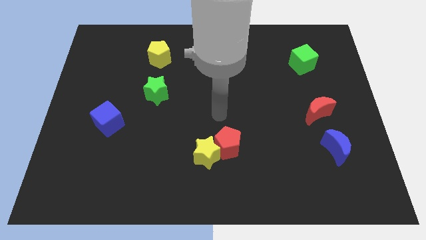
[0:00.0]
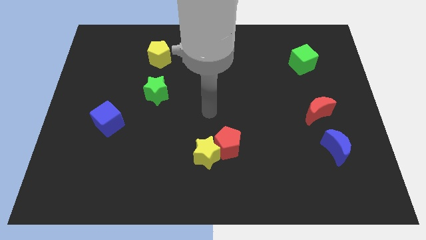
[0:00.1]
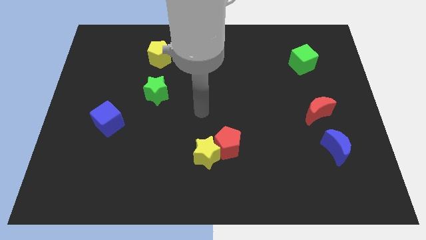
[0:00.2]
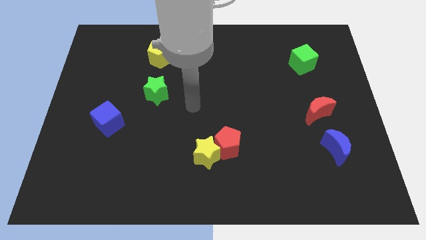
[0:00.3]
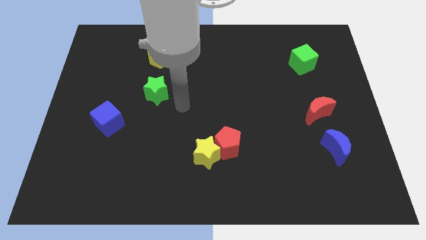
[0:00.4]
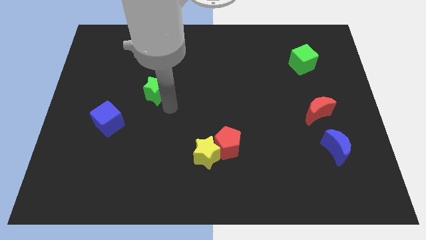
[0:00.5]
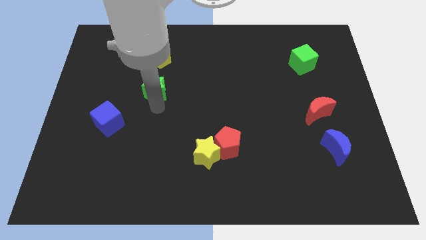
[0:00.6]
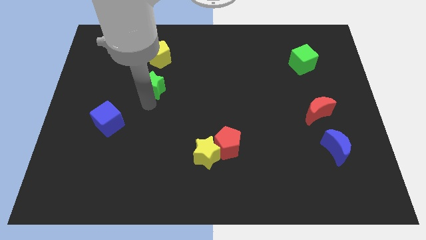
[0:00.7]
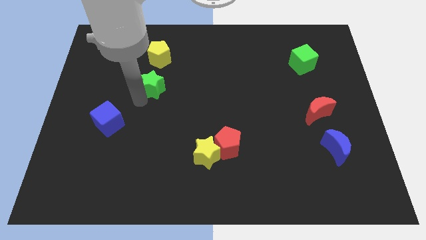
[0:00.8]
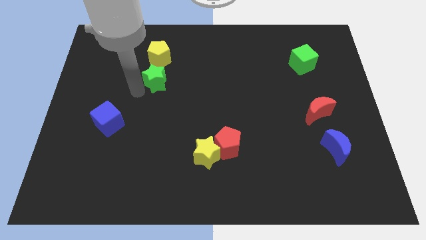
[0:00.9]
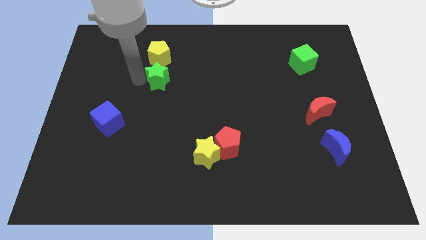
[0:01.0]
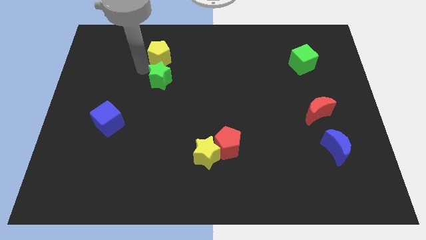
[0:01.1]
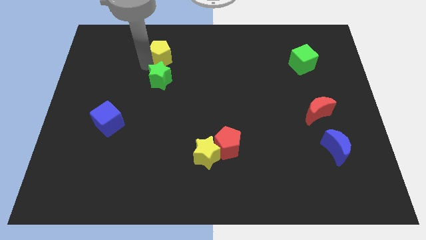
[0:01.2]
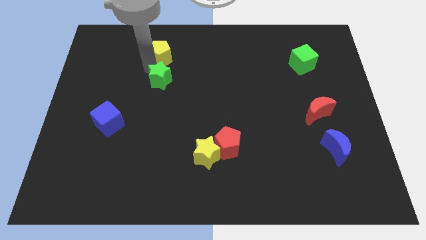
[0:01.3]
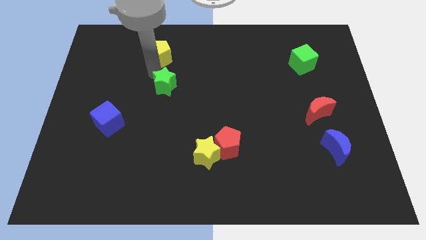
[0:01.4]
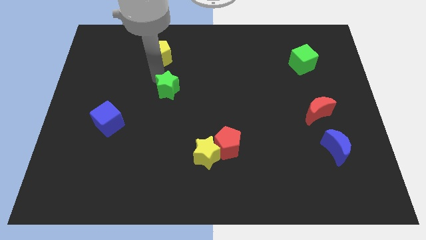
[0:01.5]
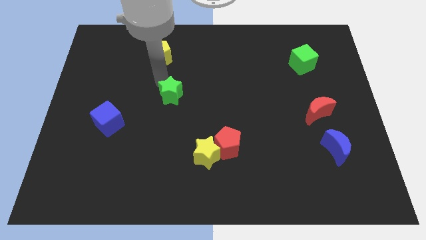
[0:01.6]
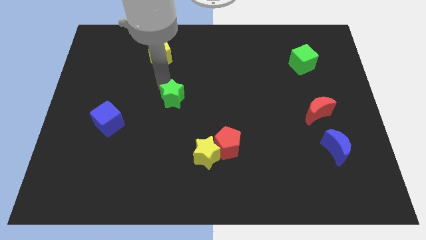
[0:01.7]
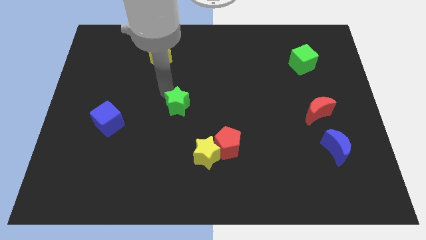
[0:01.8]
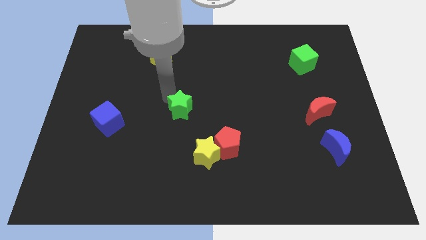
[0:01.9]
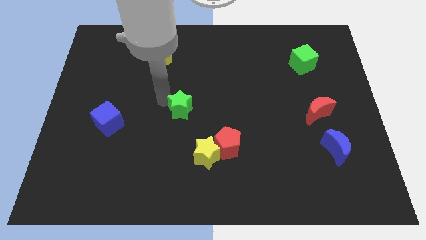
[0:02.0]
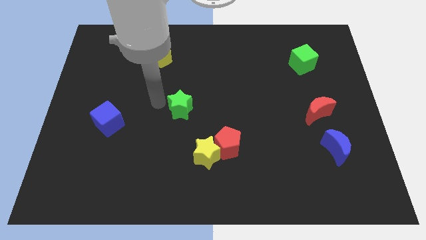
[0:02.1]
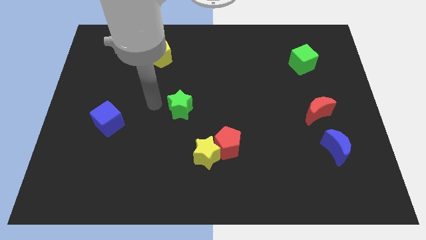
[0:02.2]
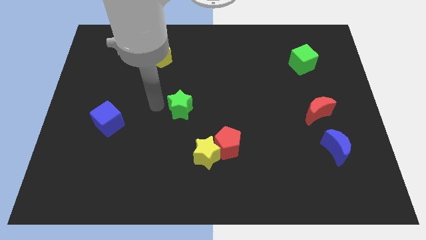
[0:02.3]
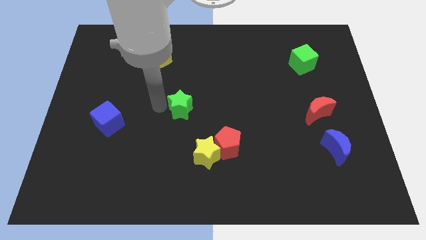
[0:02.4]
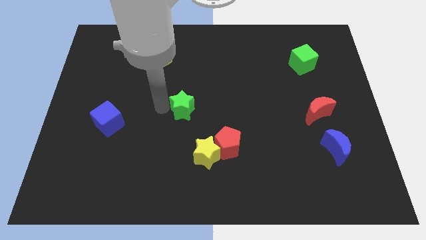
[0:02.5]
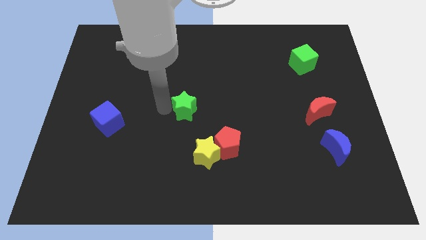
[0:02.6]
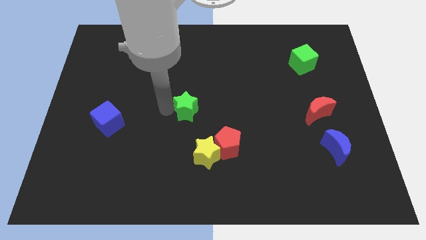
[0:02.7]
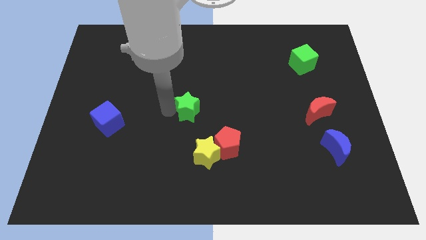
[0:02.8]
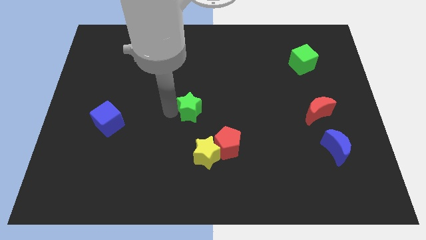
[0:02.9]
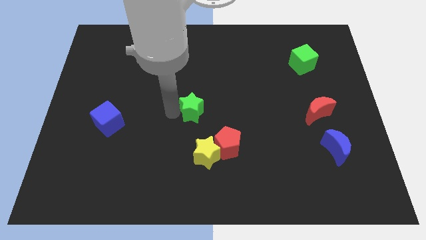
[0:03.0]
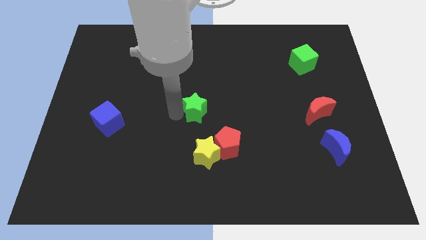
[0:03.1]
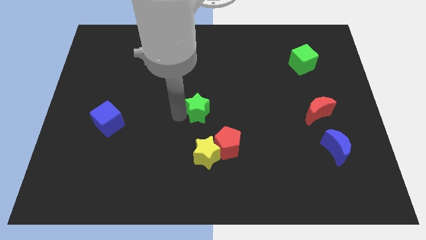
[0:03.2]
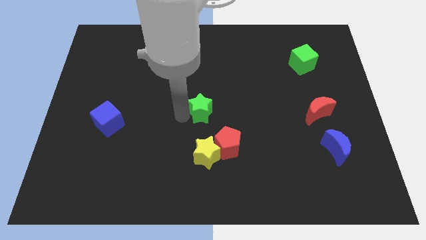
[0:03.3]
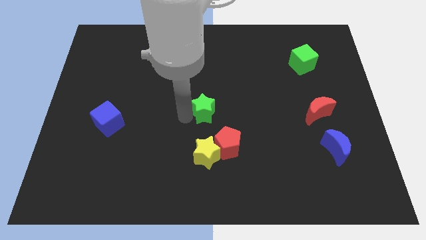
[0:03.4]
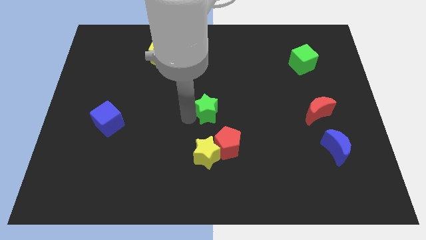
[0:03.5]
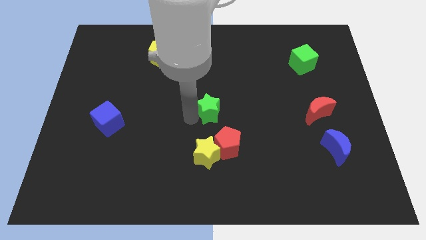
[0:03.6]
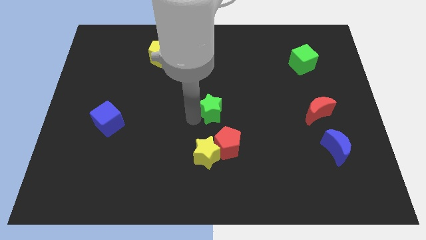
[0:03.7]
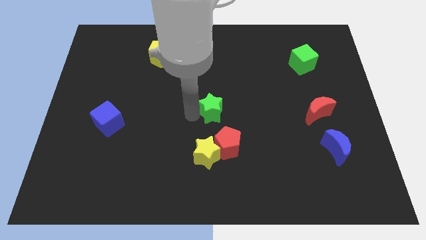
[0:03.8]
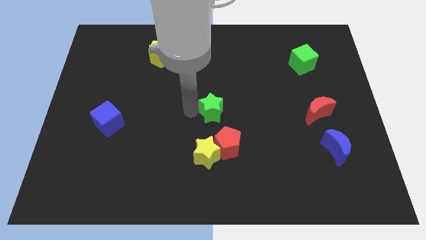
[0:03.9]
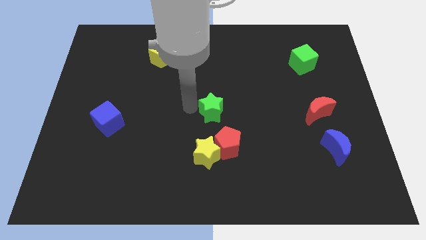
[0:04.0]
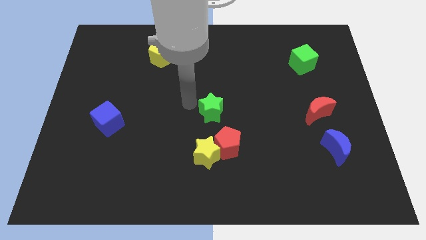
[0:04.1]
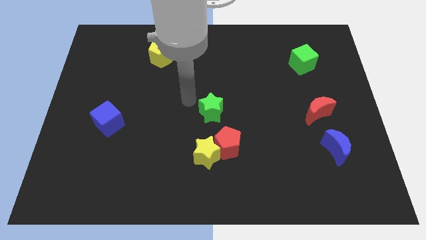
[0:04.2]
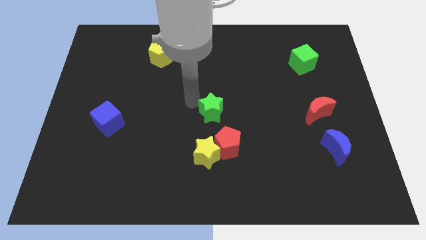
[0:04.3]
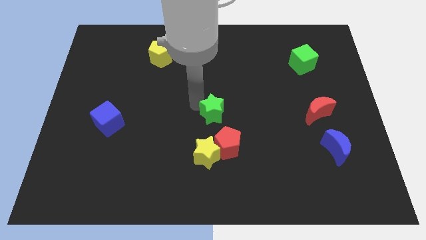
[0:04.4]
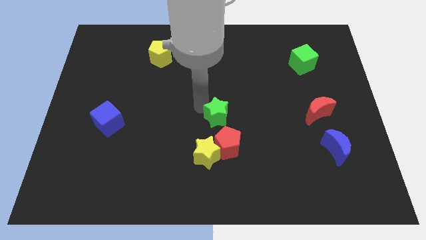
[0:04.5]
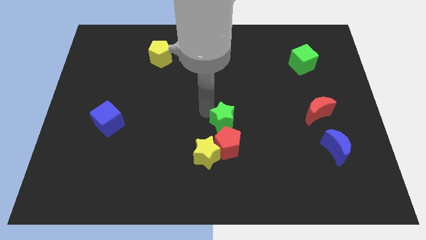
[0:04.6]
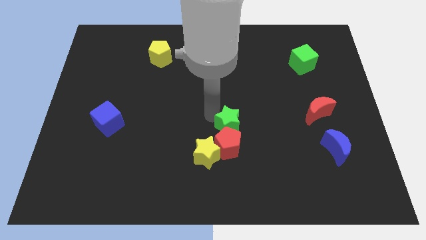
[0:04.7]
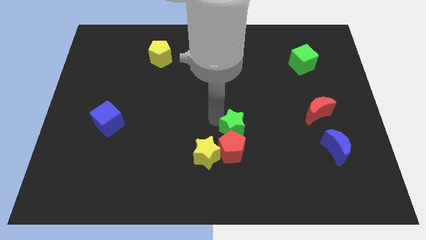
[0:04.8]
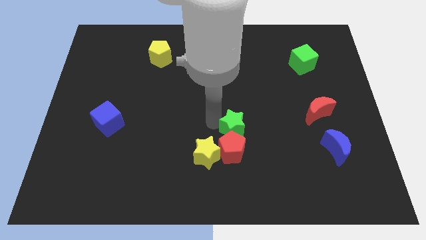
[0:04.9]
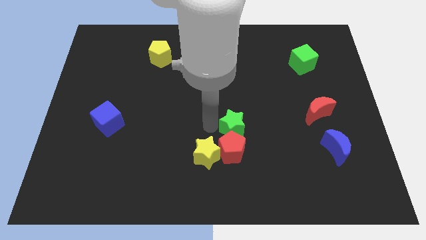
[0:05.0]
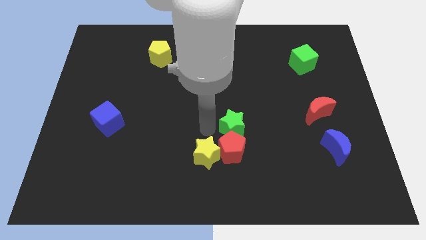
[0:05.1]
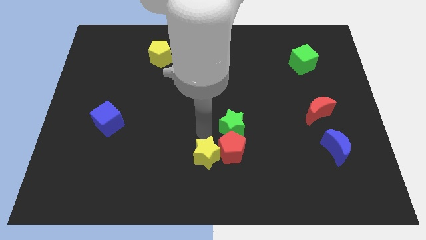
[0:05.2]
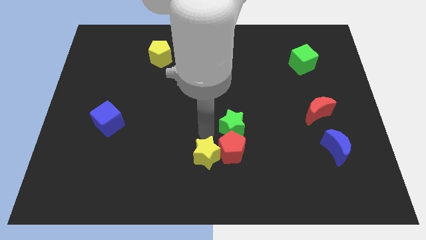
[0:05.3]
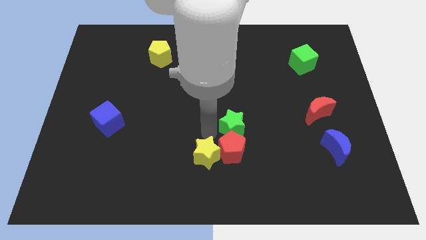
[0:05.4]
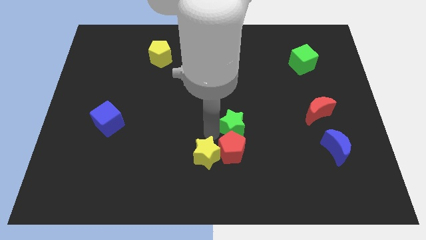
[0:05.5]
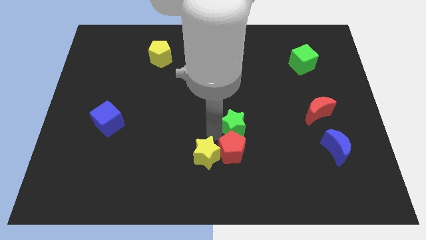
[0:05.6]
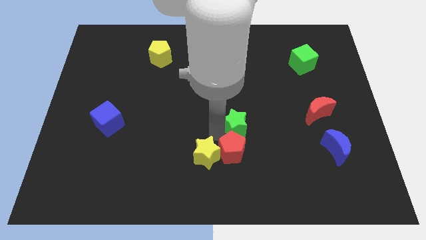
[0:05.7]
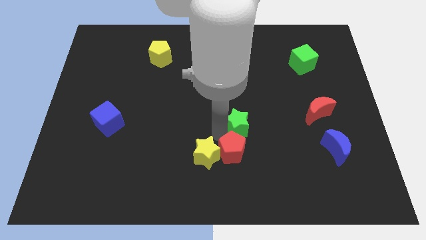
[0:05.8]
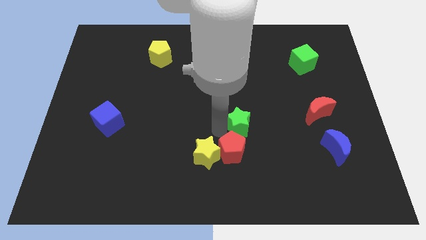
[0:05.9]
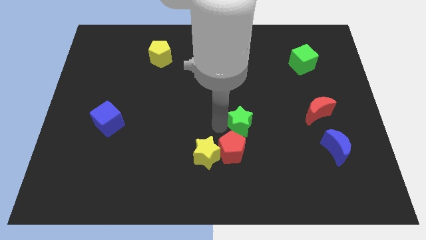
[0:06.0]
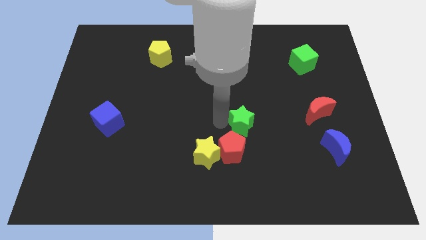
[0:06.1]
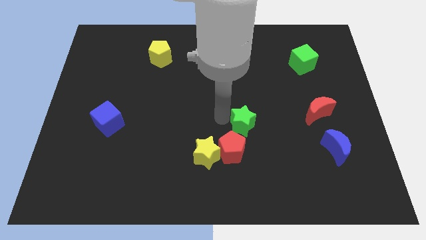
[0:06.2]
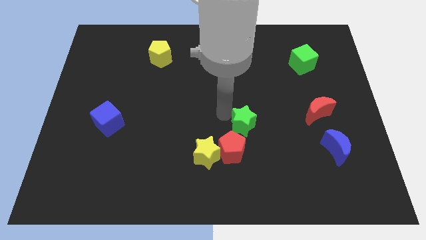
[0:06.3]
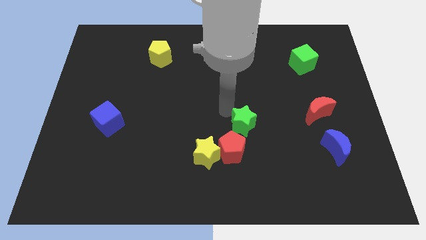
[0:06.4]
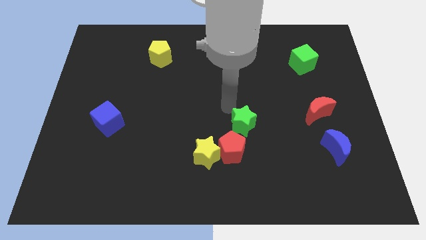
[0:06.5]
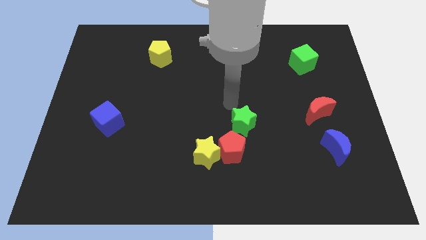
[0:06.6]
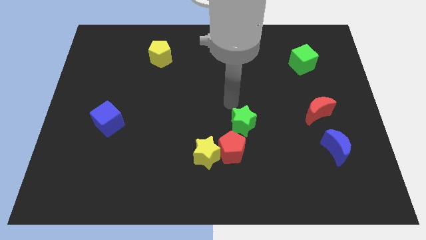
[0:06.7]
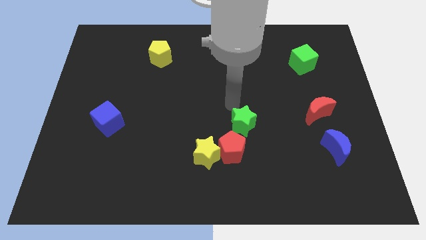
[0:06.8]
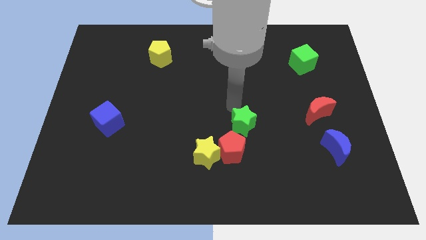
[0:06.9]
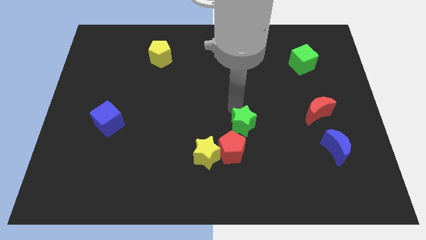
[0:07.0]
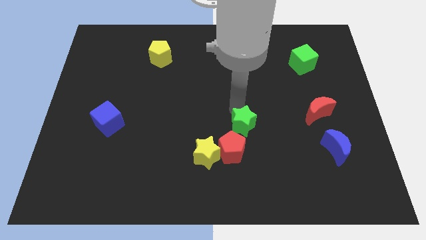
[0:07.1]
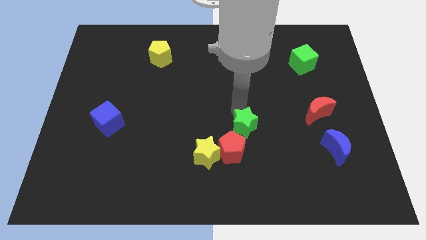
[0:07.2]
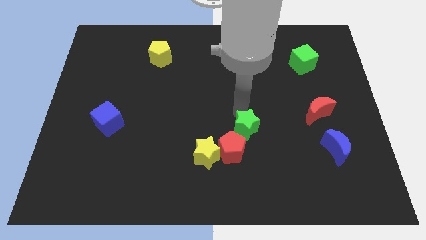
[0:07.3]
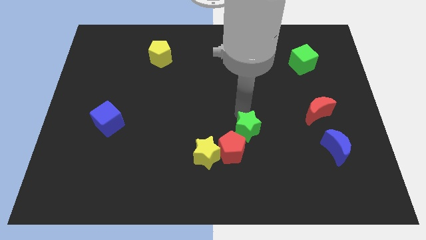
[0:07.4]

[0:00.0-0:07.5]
move the green star downwards and right diagonally
